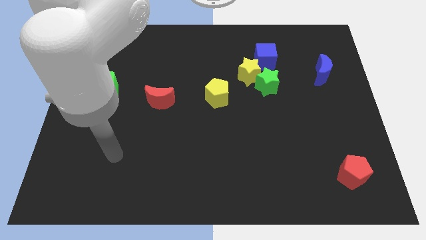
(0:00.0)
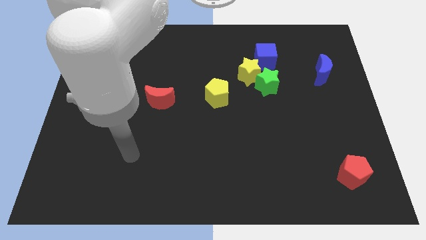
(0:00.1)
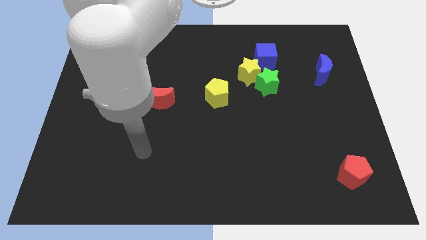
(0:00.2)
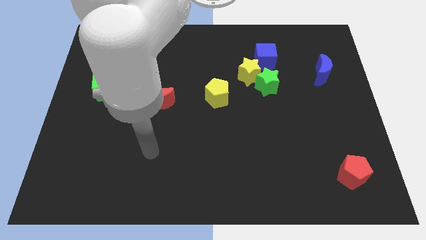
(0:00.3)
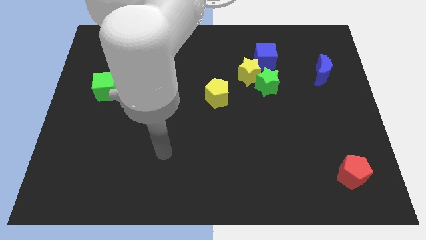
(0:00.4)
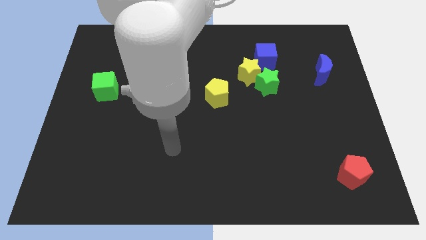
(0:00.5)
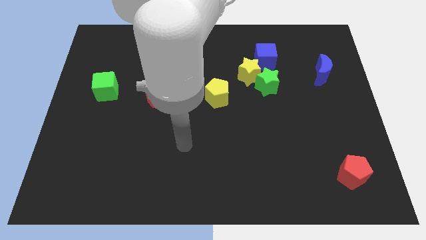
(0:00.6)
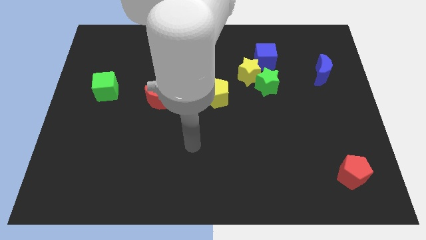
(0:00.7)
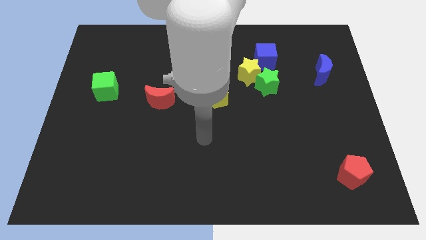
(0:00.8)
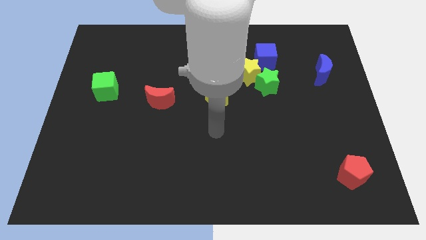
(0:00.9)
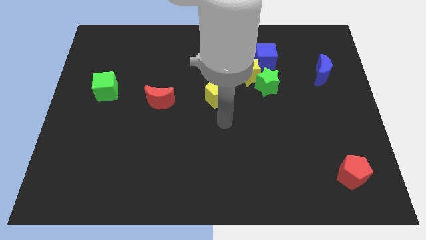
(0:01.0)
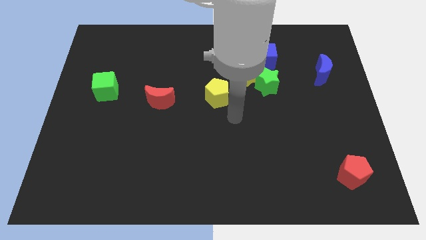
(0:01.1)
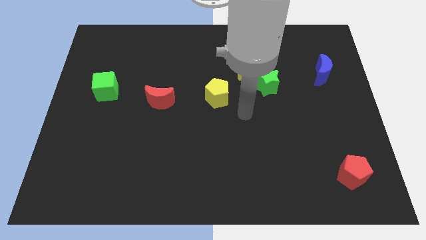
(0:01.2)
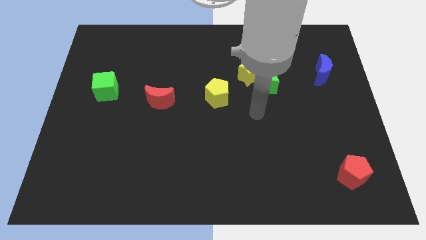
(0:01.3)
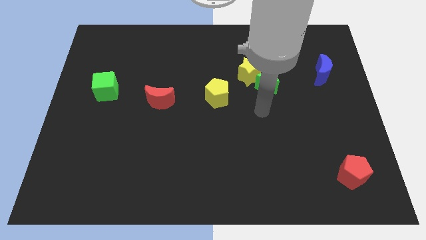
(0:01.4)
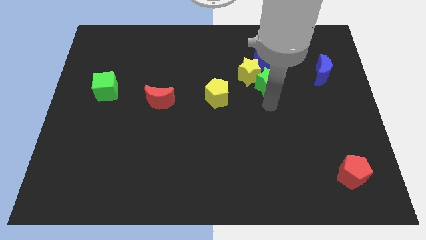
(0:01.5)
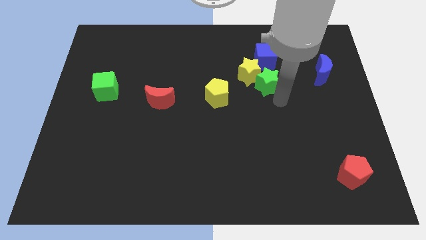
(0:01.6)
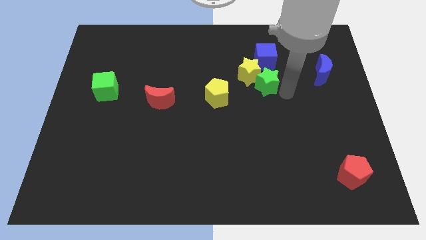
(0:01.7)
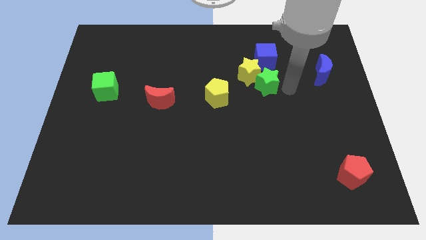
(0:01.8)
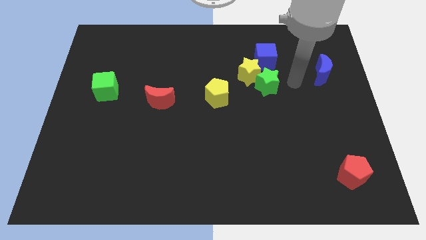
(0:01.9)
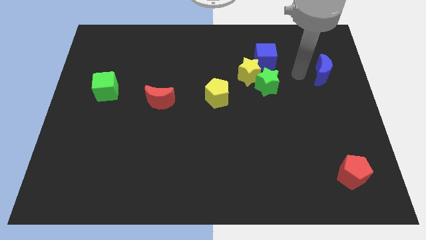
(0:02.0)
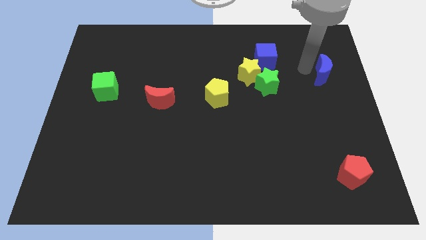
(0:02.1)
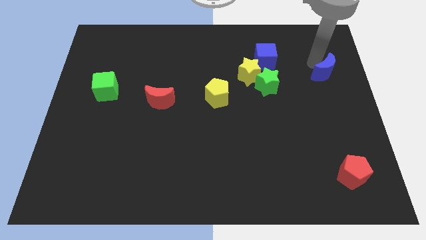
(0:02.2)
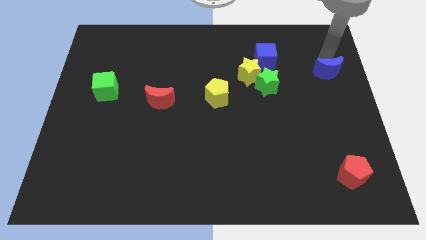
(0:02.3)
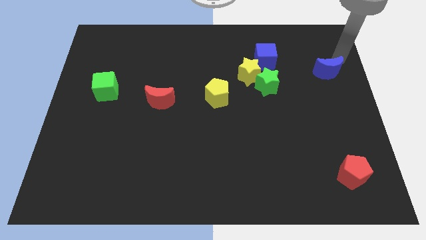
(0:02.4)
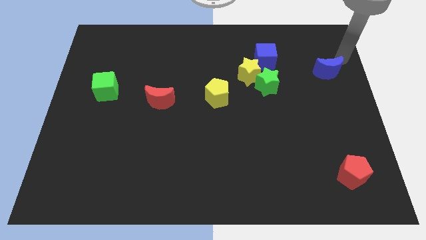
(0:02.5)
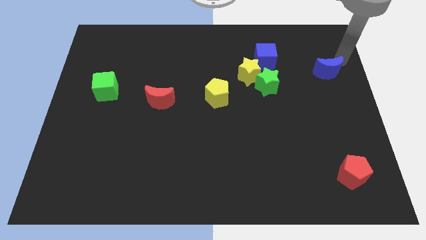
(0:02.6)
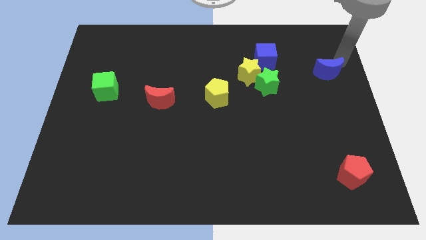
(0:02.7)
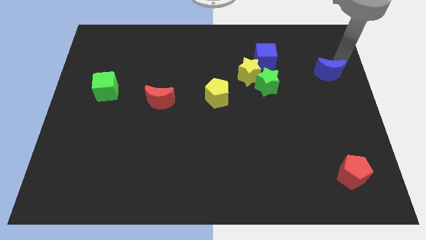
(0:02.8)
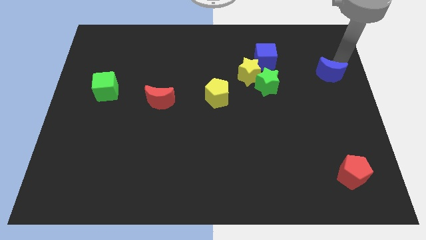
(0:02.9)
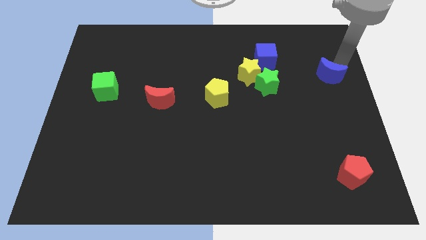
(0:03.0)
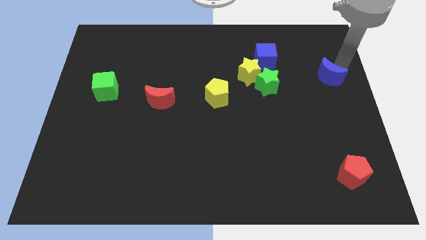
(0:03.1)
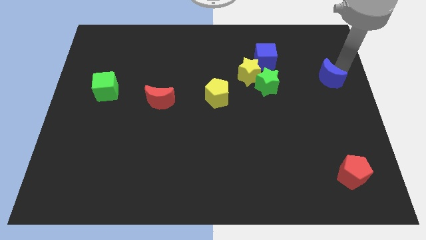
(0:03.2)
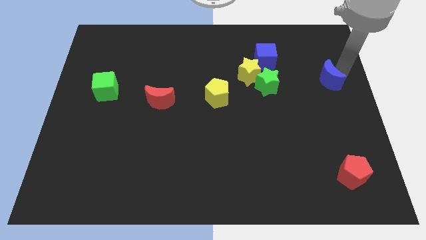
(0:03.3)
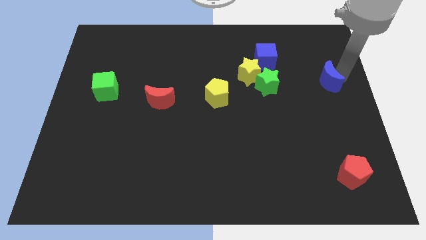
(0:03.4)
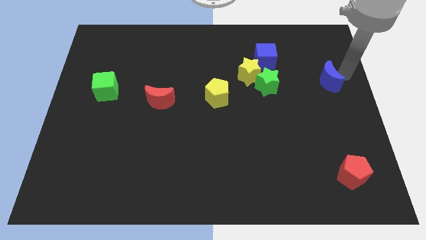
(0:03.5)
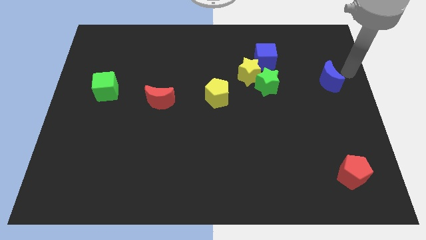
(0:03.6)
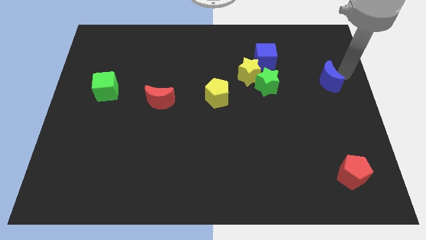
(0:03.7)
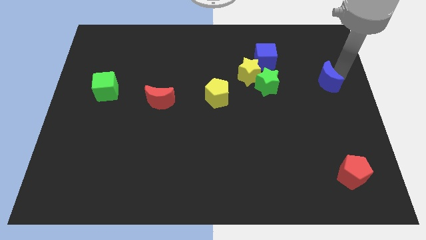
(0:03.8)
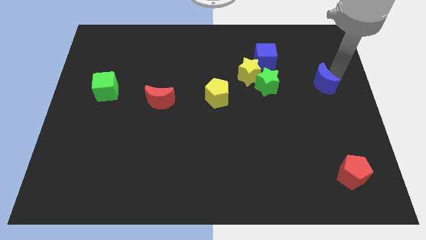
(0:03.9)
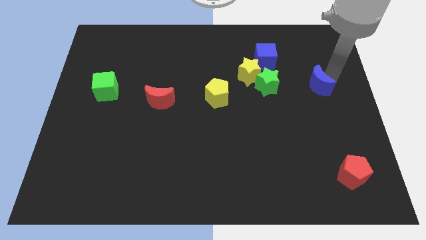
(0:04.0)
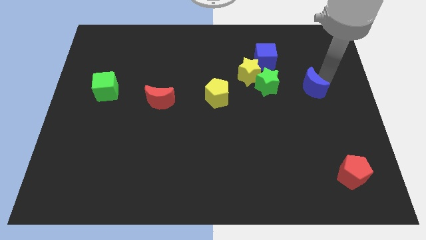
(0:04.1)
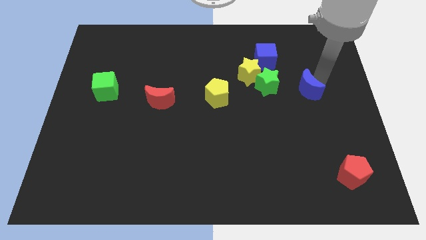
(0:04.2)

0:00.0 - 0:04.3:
slide the blue moon a bit down and then left

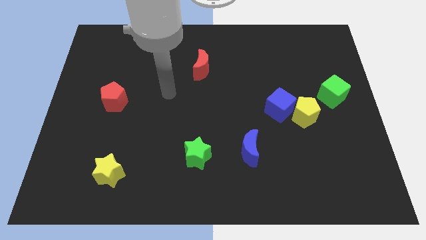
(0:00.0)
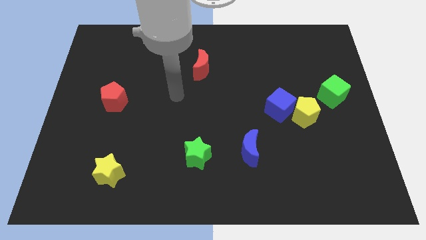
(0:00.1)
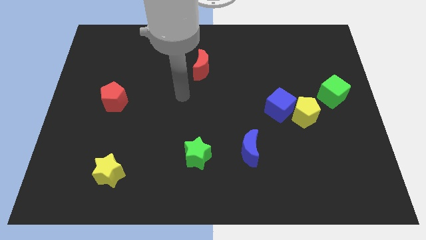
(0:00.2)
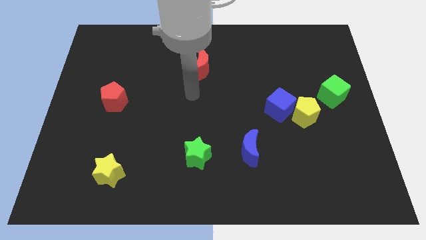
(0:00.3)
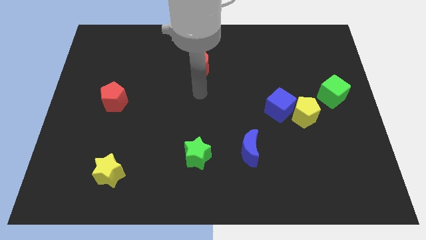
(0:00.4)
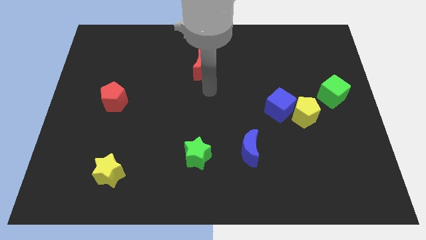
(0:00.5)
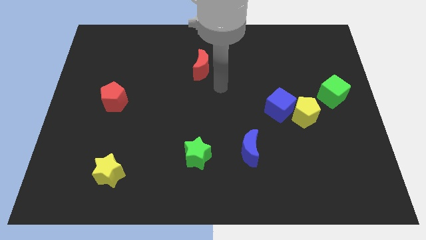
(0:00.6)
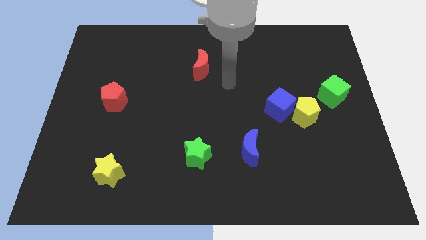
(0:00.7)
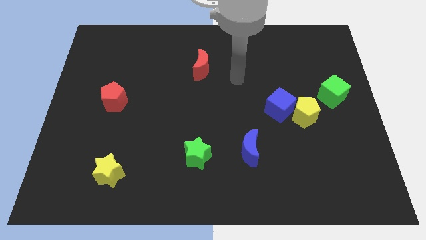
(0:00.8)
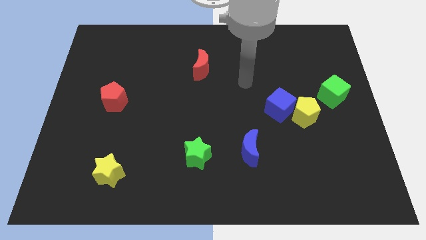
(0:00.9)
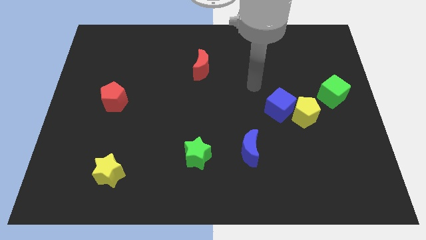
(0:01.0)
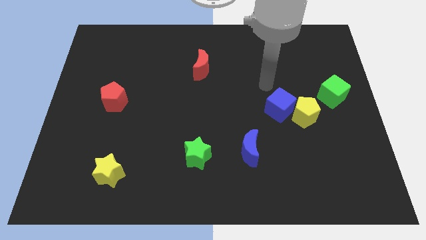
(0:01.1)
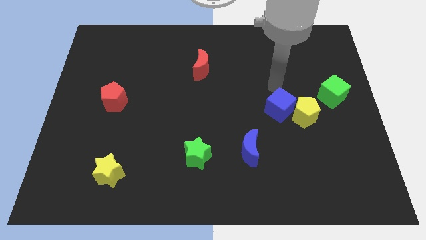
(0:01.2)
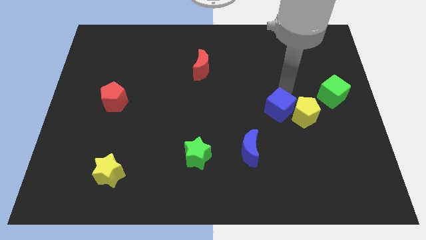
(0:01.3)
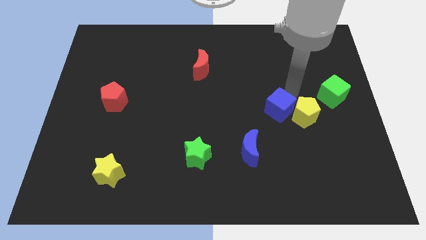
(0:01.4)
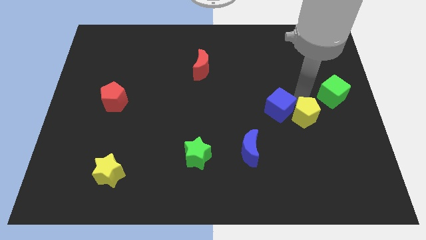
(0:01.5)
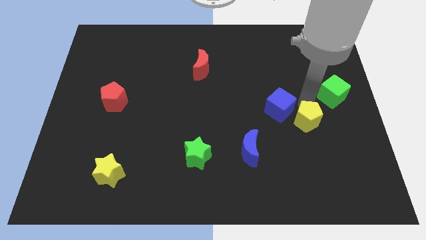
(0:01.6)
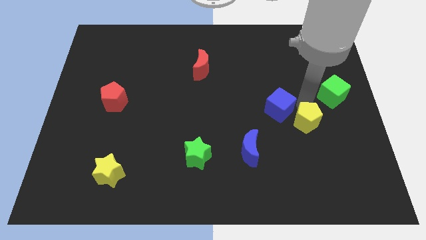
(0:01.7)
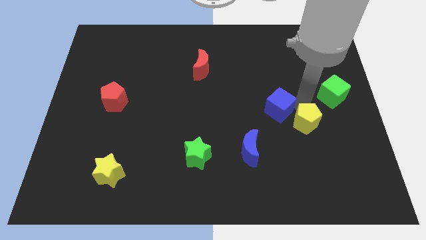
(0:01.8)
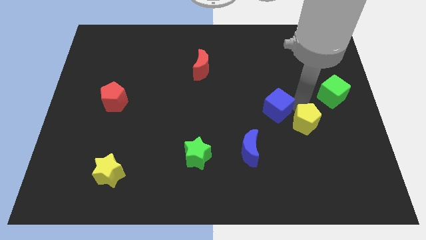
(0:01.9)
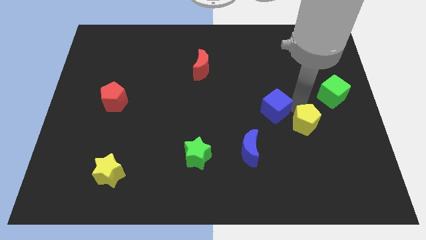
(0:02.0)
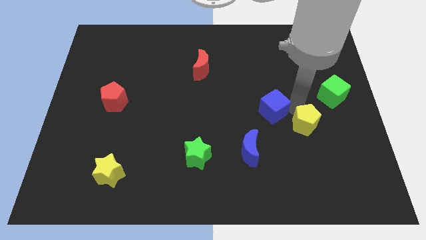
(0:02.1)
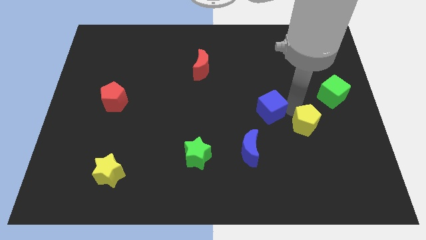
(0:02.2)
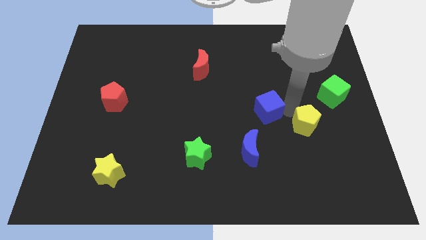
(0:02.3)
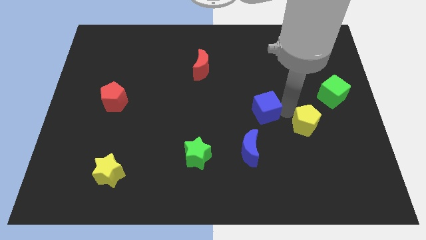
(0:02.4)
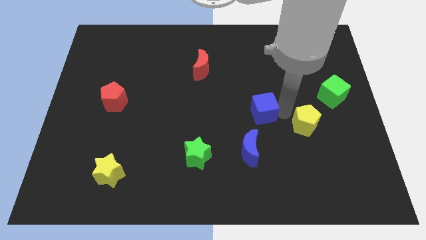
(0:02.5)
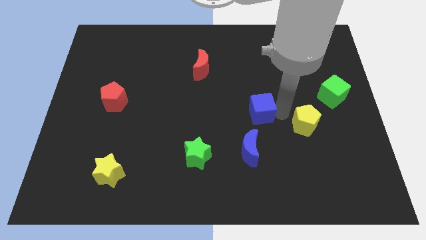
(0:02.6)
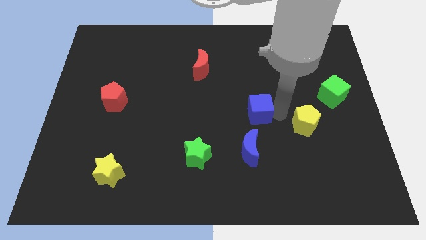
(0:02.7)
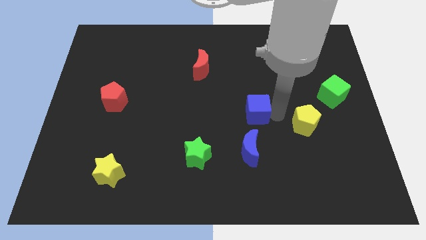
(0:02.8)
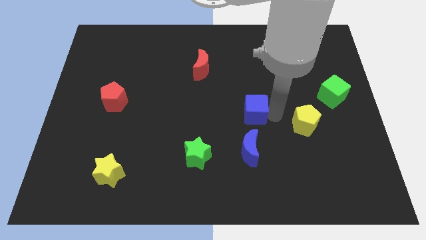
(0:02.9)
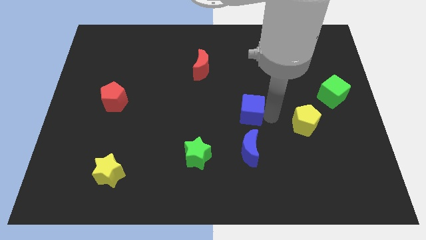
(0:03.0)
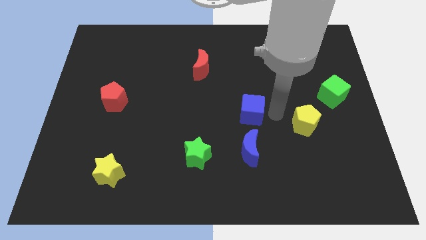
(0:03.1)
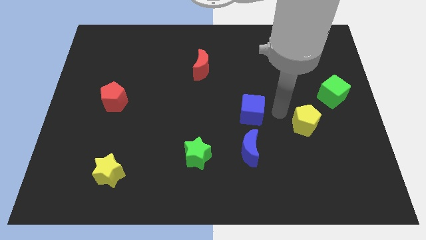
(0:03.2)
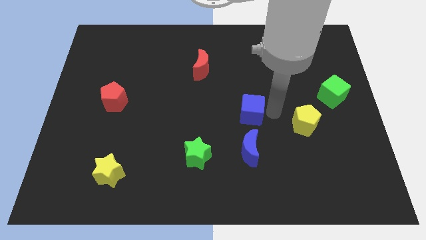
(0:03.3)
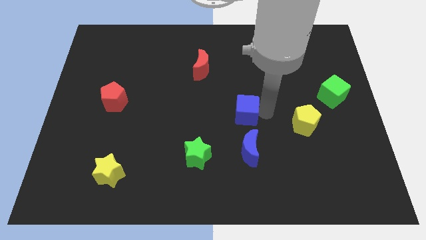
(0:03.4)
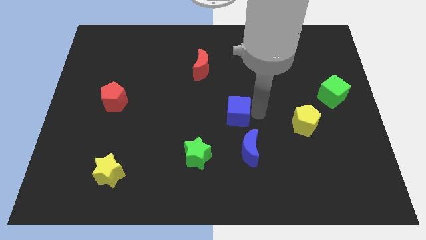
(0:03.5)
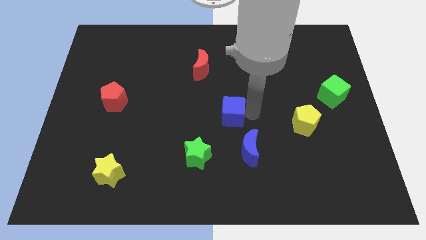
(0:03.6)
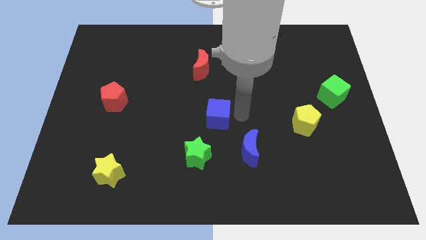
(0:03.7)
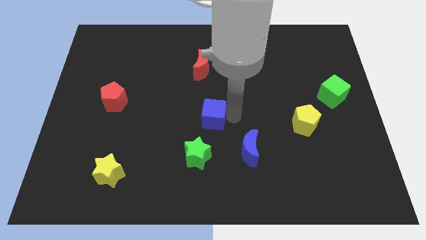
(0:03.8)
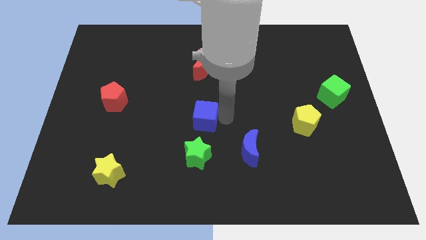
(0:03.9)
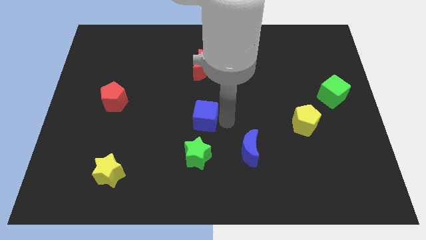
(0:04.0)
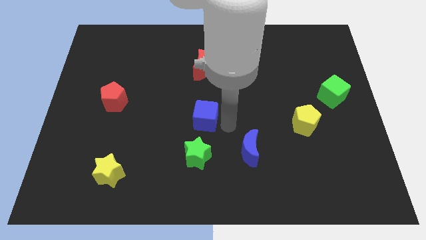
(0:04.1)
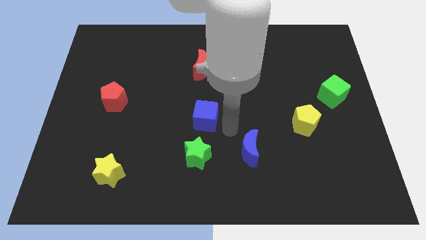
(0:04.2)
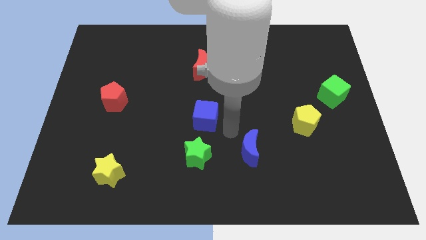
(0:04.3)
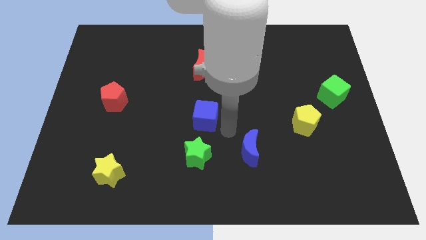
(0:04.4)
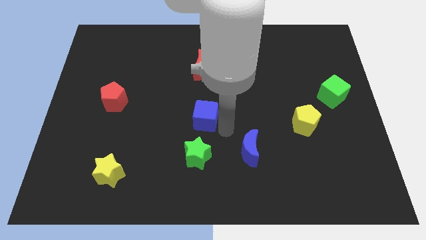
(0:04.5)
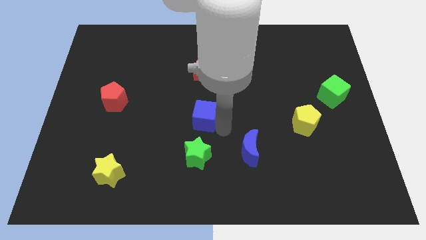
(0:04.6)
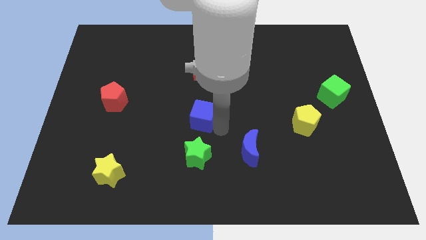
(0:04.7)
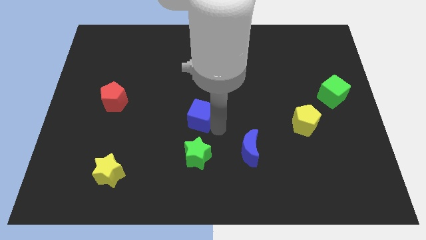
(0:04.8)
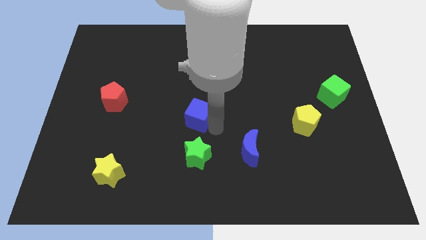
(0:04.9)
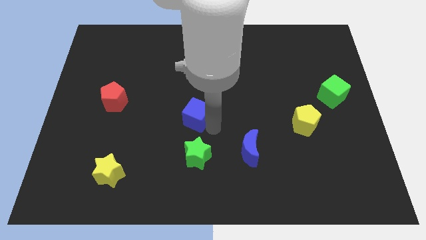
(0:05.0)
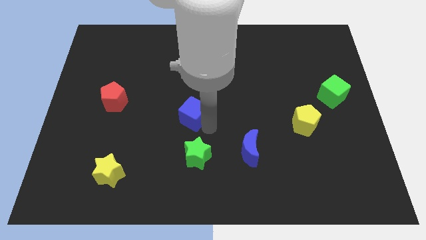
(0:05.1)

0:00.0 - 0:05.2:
slide the blue cube to the left
